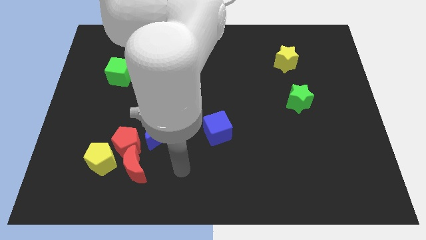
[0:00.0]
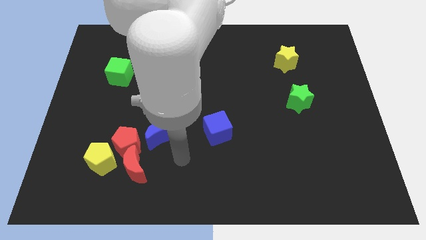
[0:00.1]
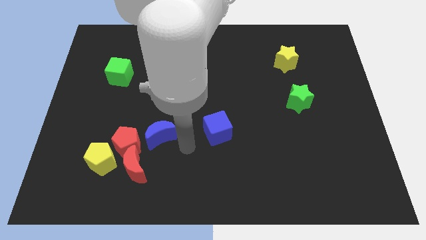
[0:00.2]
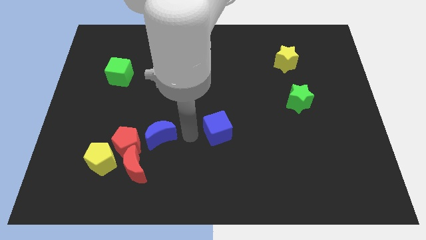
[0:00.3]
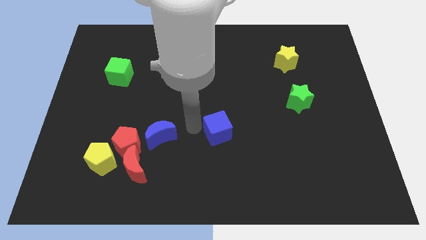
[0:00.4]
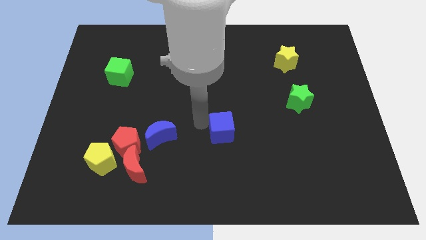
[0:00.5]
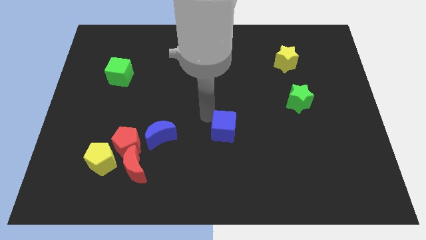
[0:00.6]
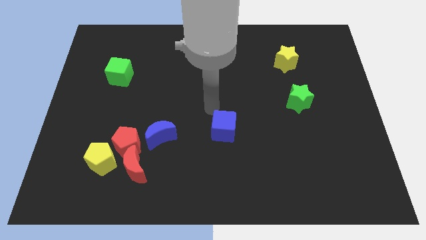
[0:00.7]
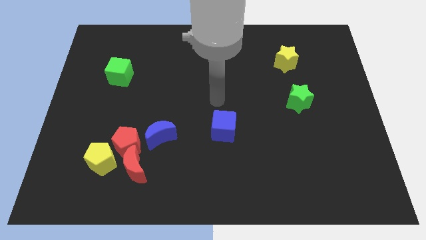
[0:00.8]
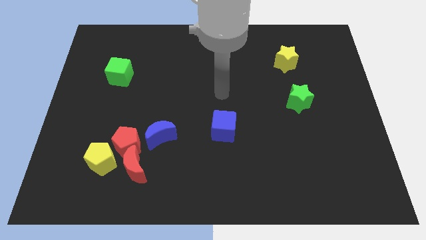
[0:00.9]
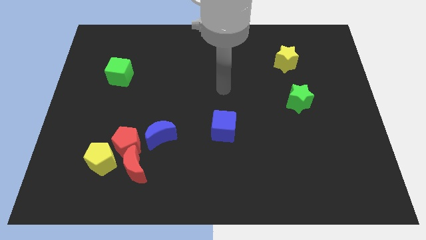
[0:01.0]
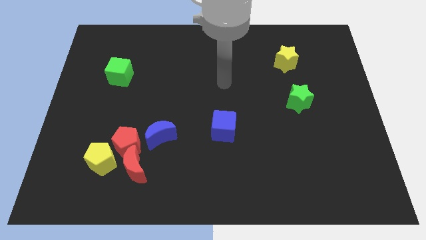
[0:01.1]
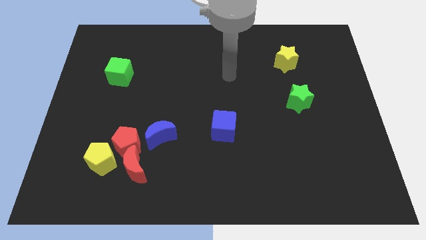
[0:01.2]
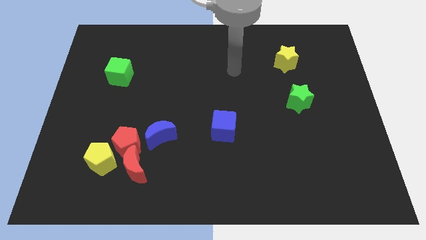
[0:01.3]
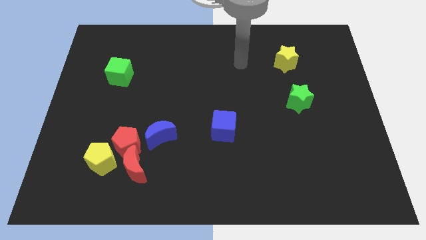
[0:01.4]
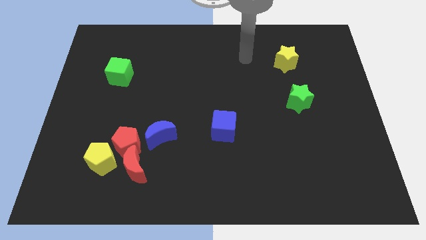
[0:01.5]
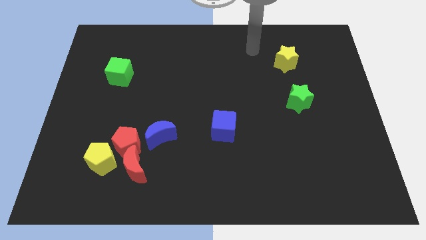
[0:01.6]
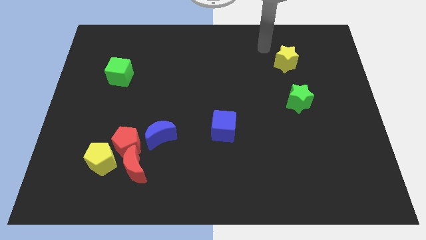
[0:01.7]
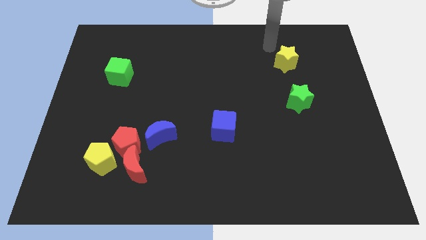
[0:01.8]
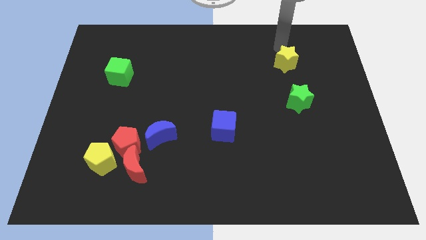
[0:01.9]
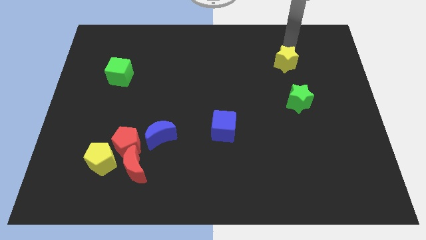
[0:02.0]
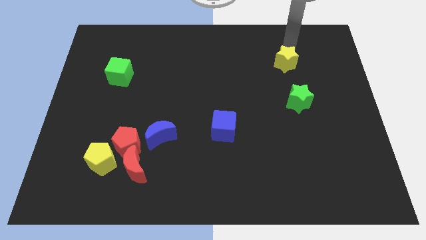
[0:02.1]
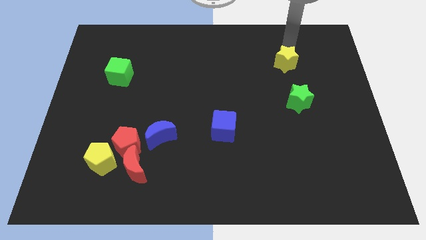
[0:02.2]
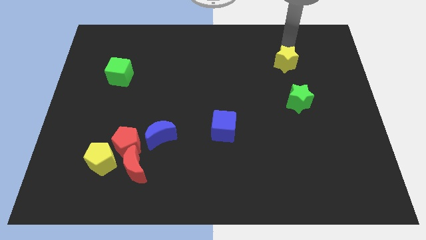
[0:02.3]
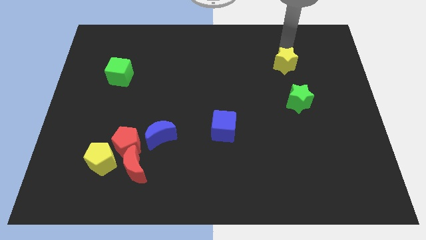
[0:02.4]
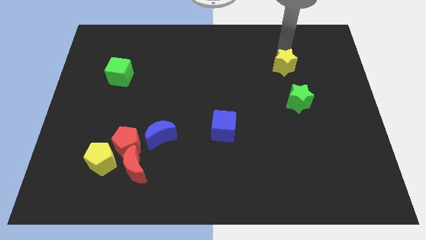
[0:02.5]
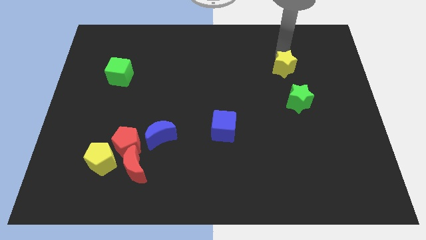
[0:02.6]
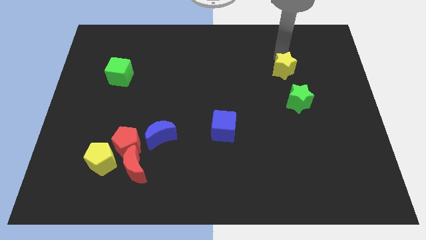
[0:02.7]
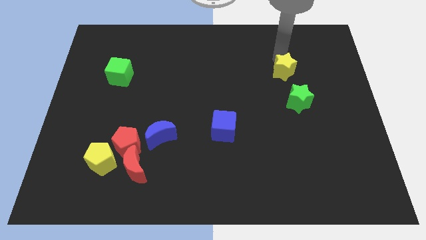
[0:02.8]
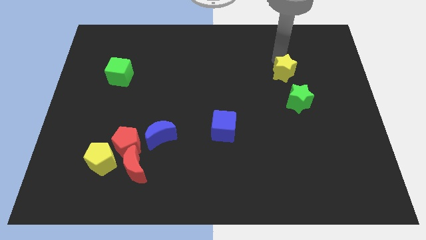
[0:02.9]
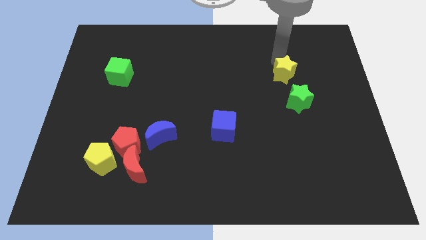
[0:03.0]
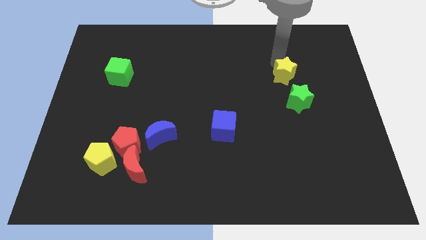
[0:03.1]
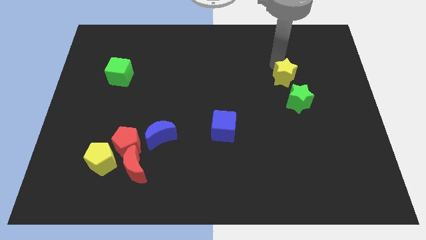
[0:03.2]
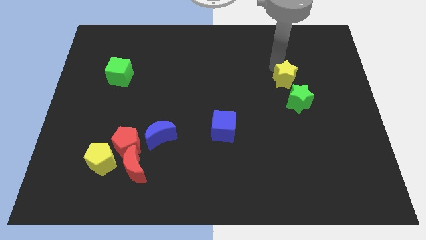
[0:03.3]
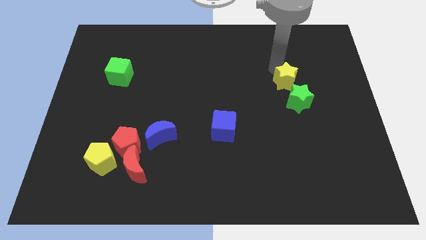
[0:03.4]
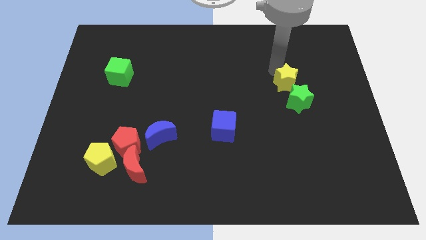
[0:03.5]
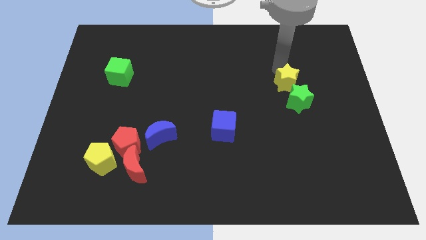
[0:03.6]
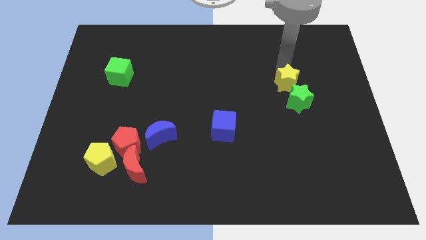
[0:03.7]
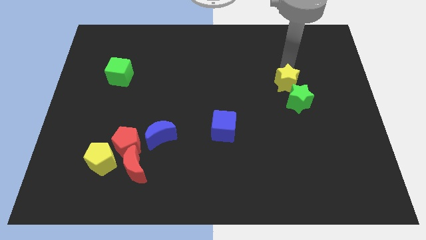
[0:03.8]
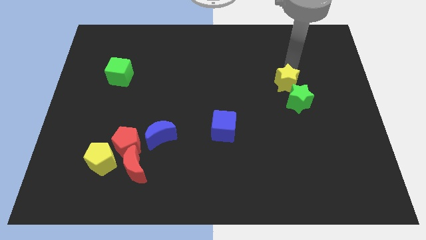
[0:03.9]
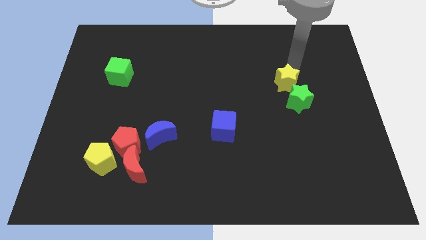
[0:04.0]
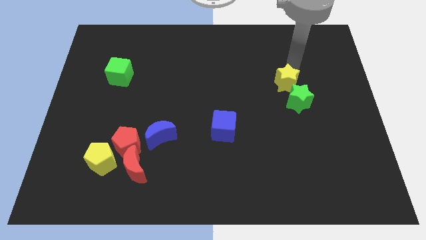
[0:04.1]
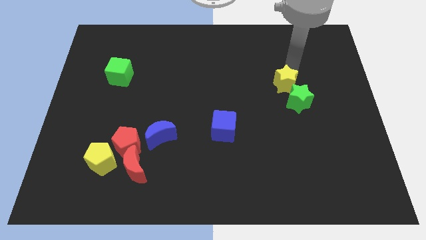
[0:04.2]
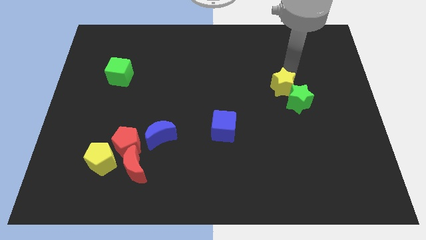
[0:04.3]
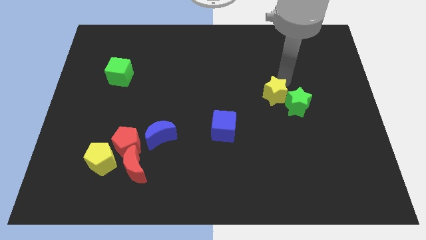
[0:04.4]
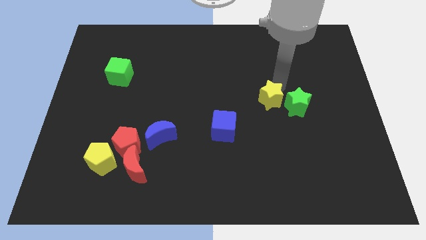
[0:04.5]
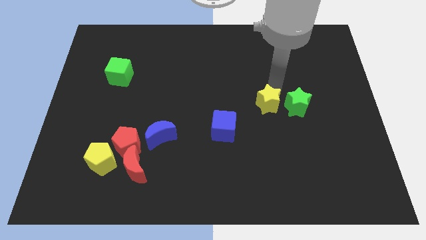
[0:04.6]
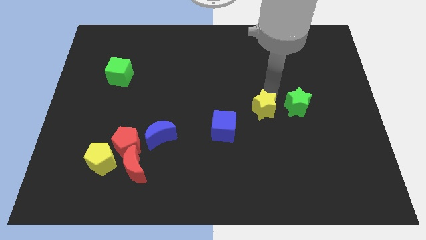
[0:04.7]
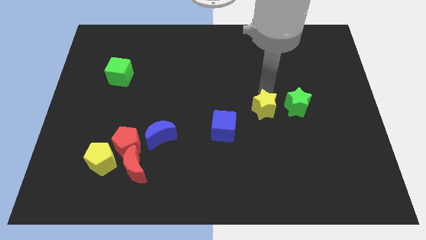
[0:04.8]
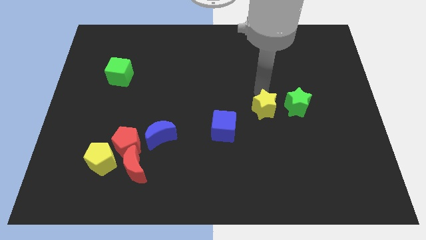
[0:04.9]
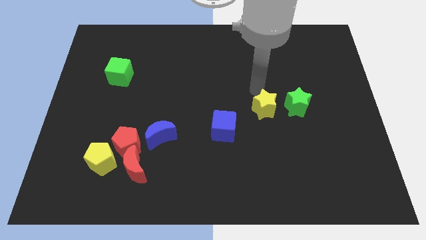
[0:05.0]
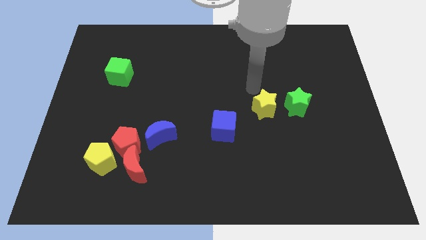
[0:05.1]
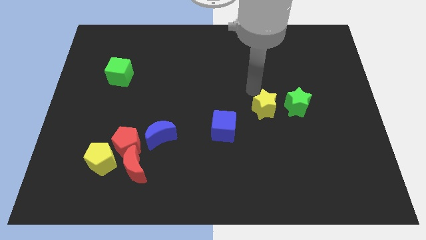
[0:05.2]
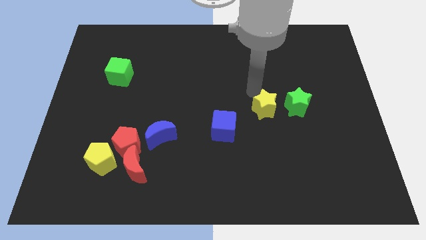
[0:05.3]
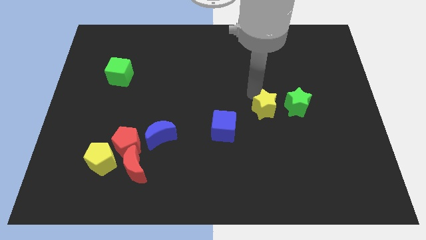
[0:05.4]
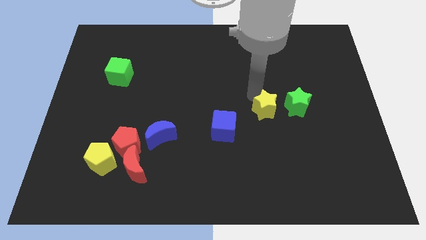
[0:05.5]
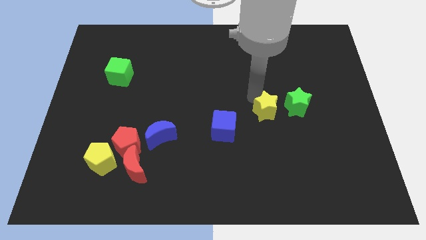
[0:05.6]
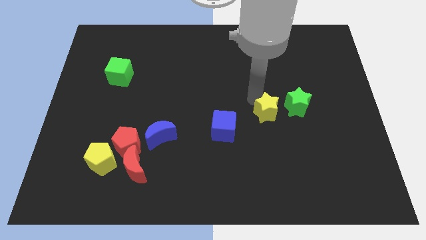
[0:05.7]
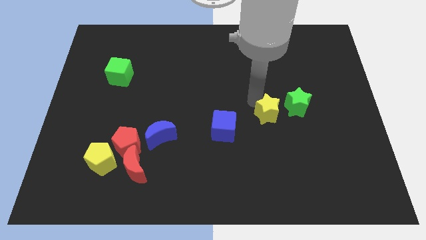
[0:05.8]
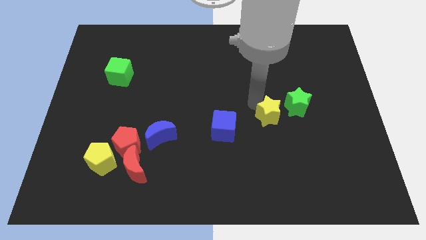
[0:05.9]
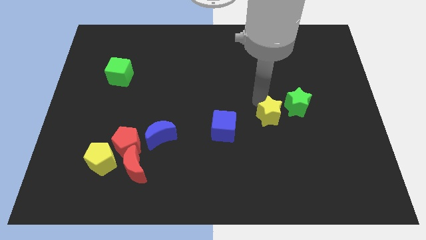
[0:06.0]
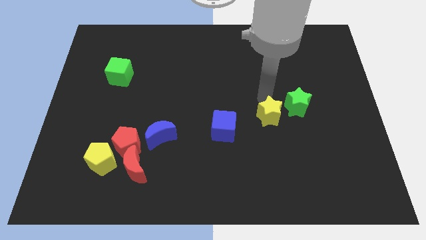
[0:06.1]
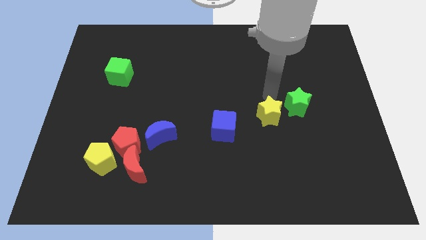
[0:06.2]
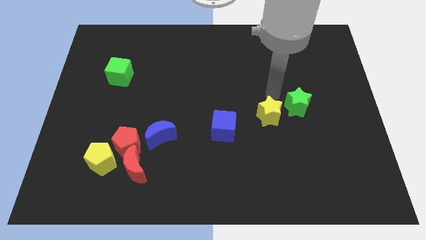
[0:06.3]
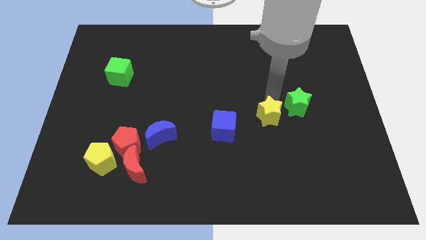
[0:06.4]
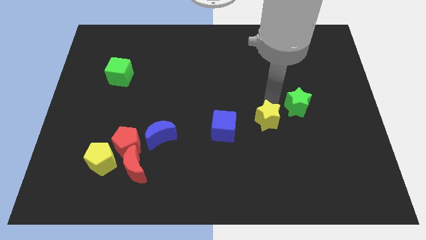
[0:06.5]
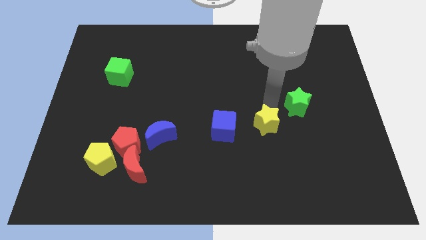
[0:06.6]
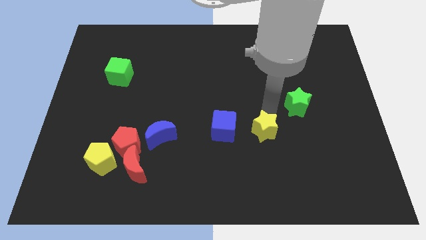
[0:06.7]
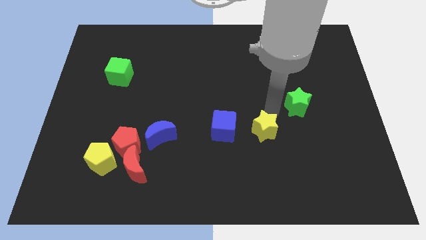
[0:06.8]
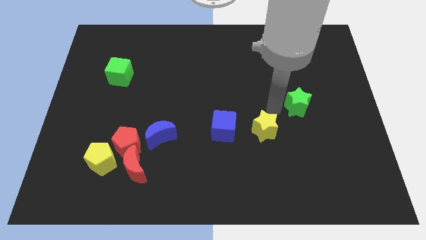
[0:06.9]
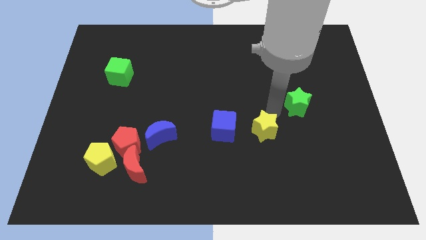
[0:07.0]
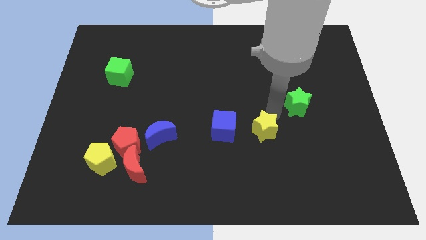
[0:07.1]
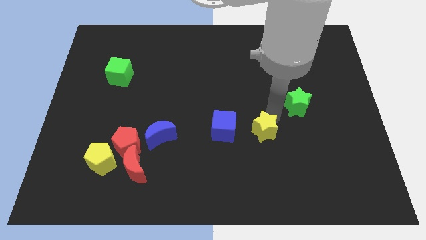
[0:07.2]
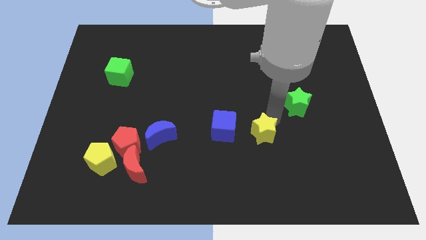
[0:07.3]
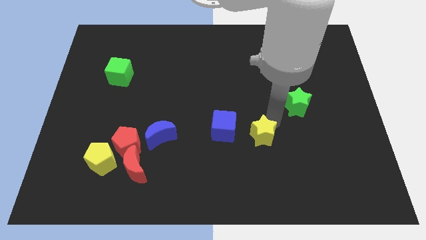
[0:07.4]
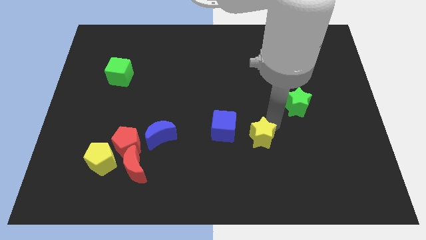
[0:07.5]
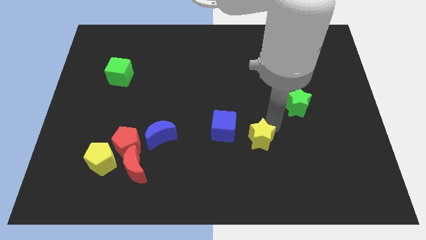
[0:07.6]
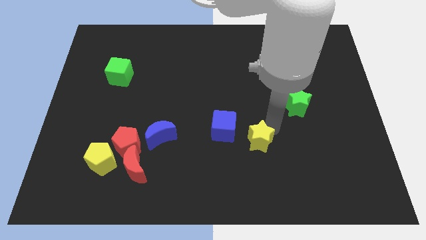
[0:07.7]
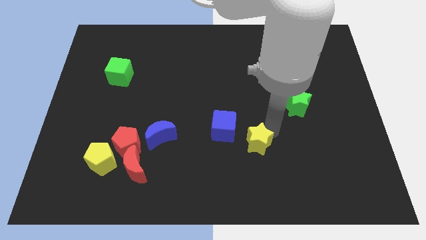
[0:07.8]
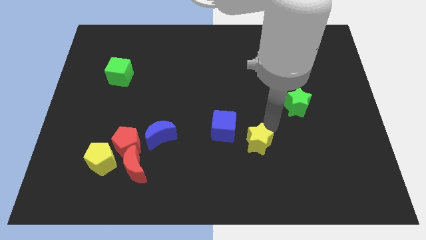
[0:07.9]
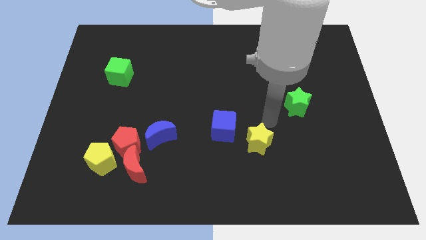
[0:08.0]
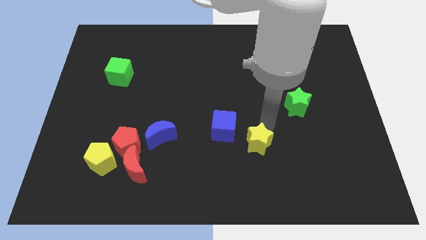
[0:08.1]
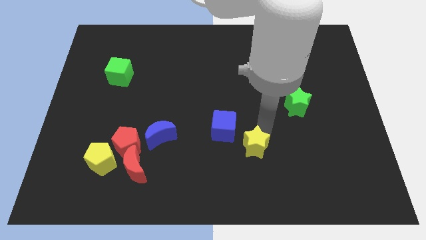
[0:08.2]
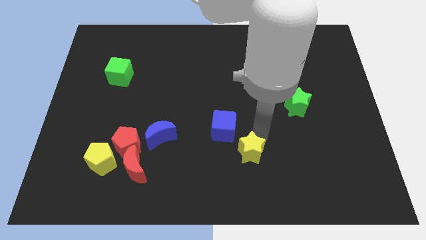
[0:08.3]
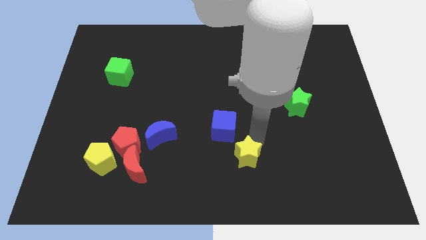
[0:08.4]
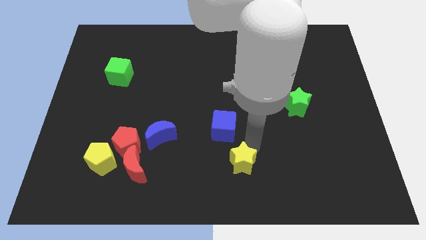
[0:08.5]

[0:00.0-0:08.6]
put the yellow star to the bottom side
